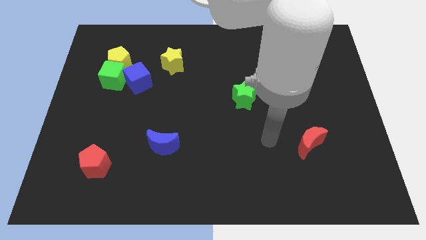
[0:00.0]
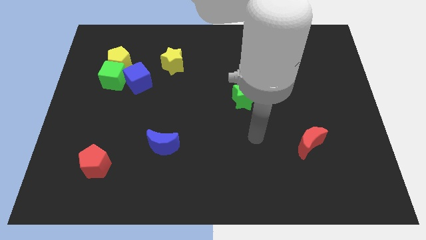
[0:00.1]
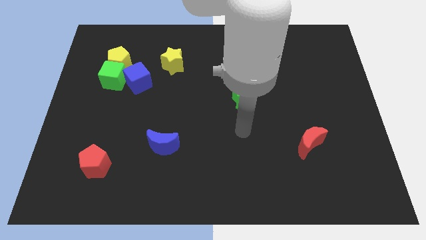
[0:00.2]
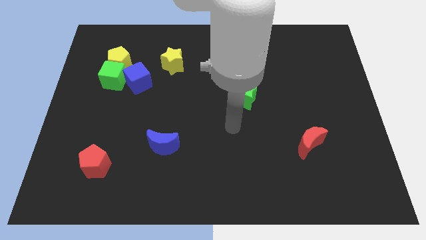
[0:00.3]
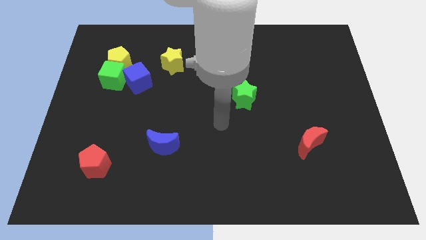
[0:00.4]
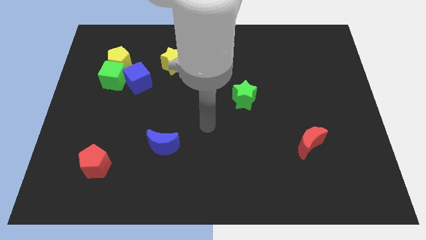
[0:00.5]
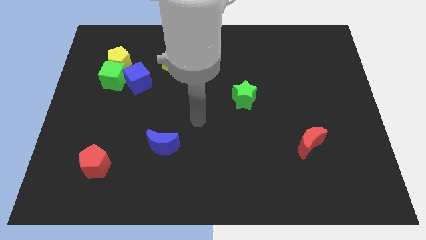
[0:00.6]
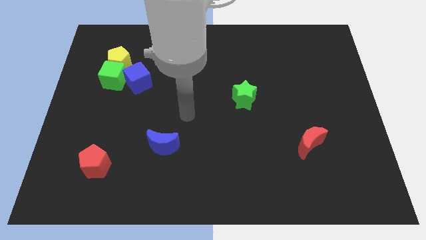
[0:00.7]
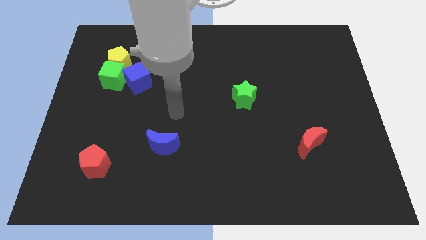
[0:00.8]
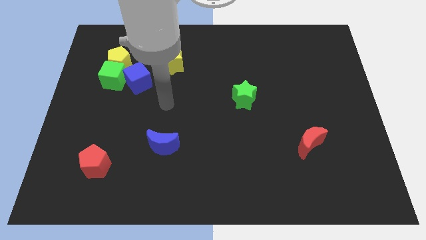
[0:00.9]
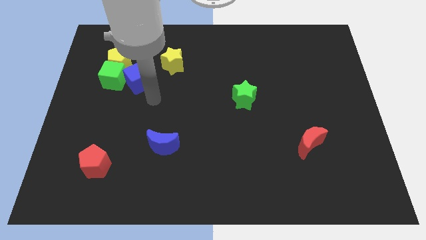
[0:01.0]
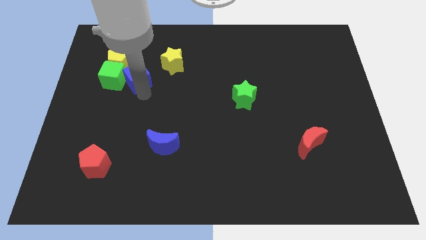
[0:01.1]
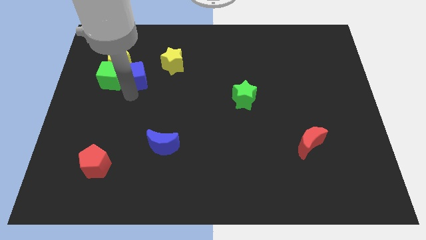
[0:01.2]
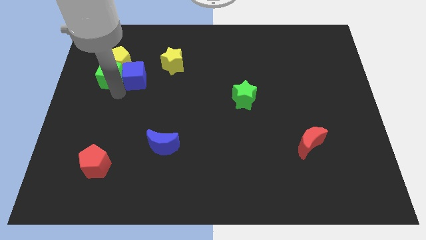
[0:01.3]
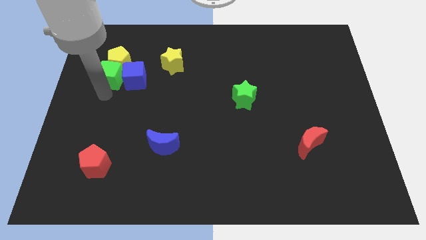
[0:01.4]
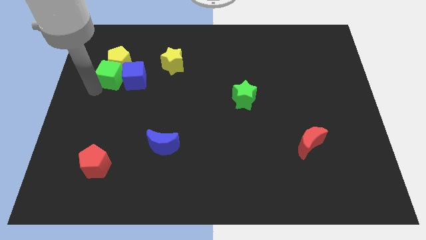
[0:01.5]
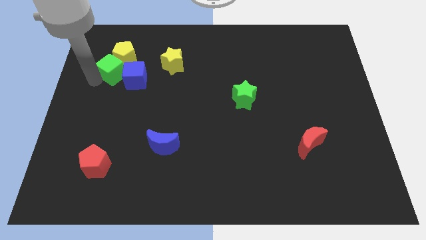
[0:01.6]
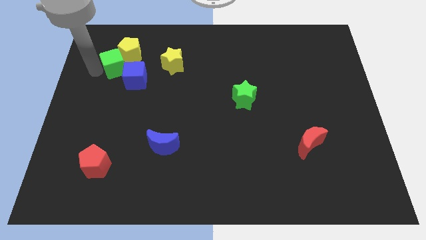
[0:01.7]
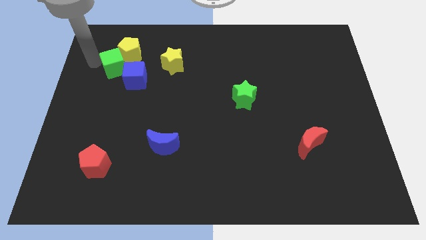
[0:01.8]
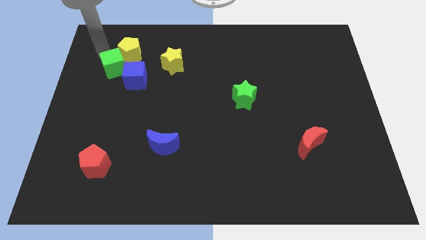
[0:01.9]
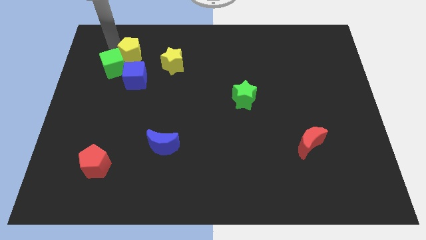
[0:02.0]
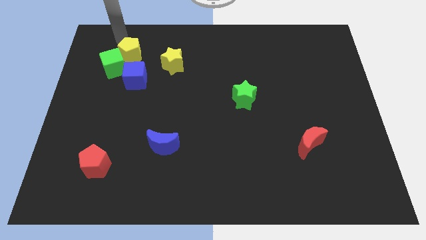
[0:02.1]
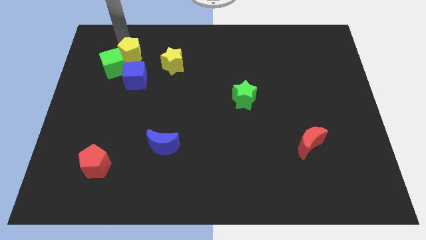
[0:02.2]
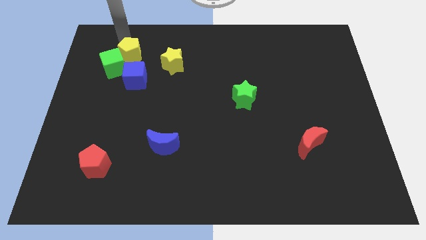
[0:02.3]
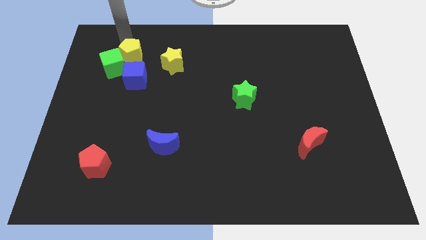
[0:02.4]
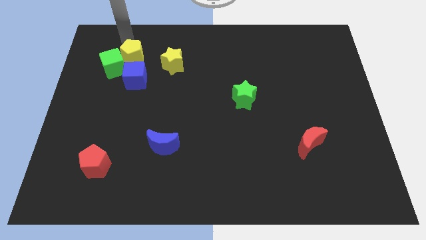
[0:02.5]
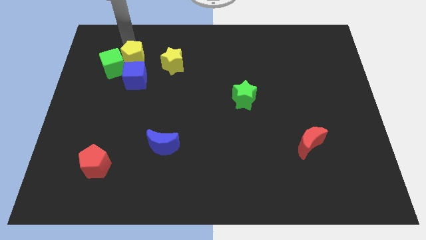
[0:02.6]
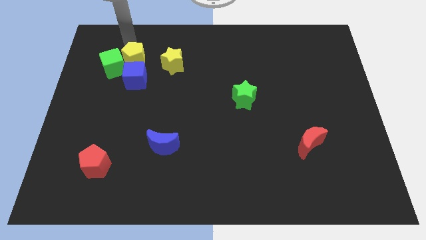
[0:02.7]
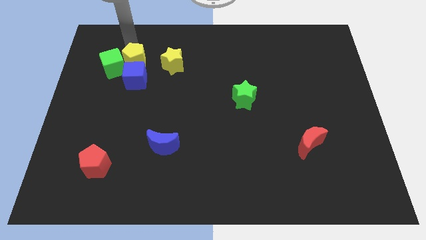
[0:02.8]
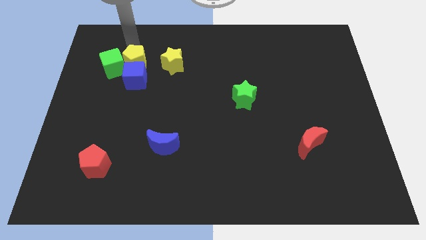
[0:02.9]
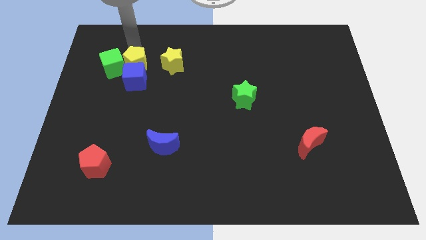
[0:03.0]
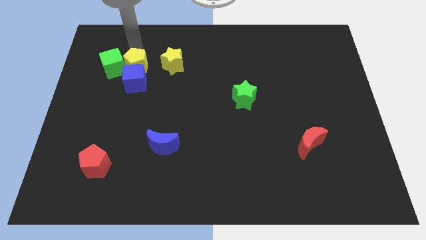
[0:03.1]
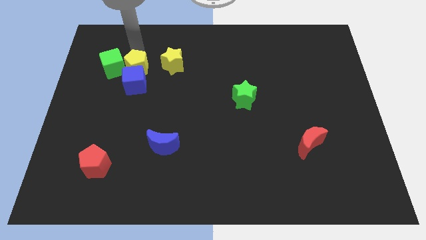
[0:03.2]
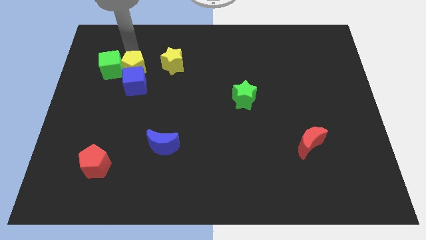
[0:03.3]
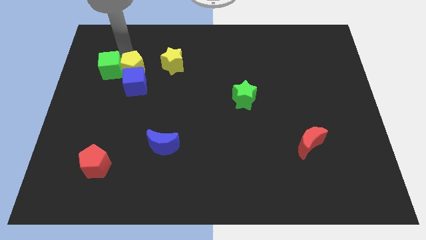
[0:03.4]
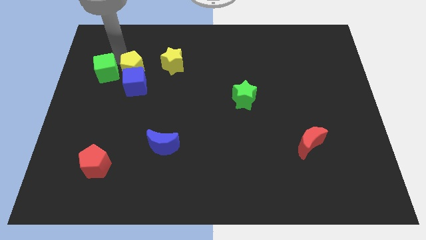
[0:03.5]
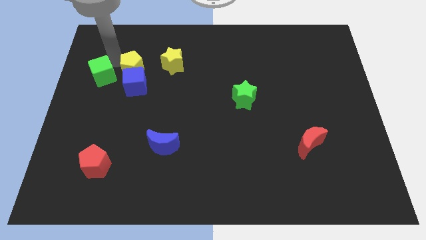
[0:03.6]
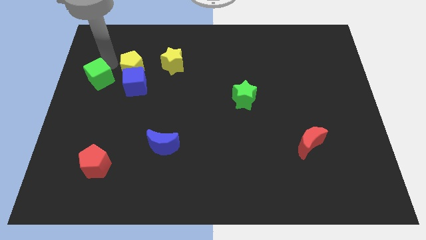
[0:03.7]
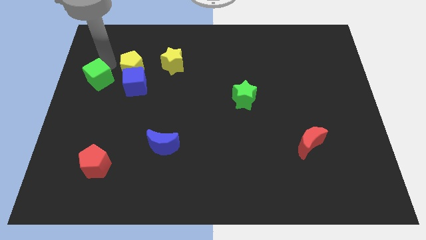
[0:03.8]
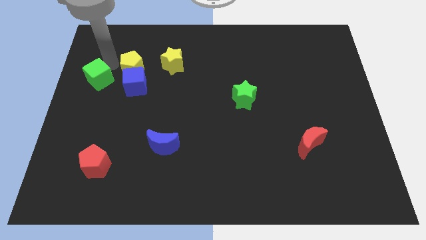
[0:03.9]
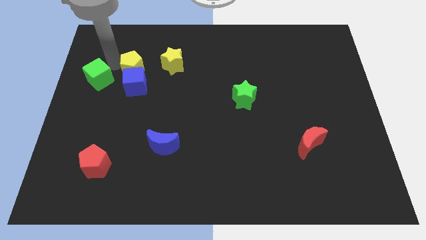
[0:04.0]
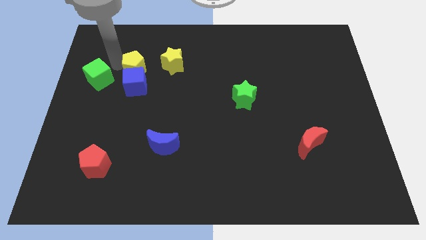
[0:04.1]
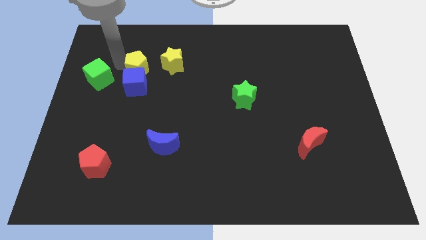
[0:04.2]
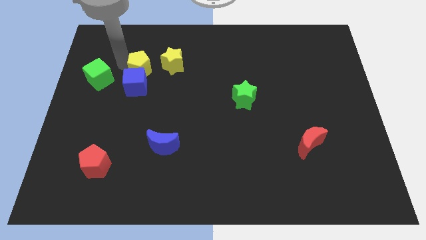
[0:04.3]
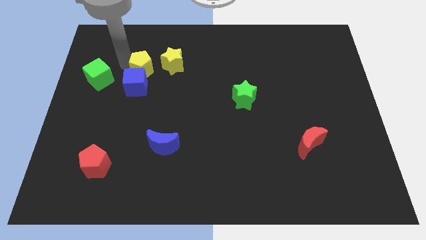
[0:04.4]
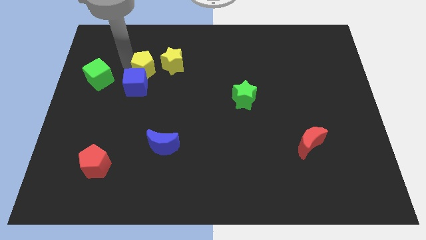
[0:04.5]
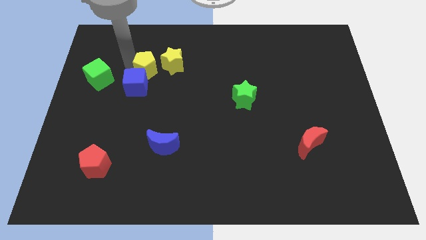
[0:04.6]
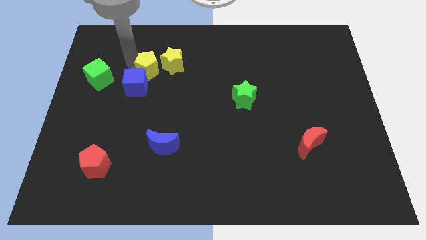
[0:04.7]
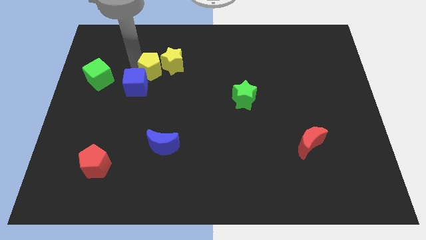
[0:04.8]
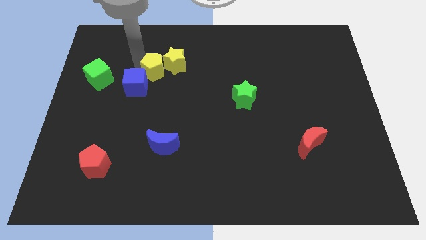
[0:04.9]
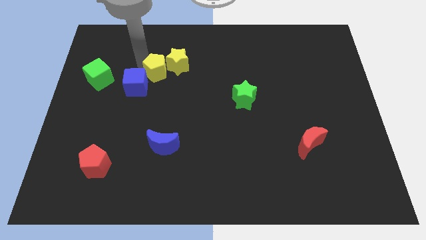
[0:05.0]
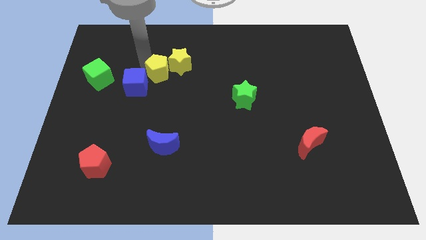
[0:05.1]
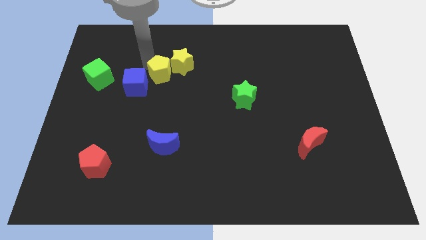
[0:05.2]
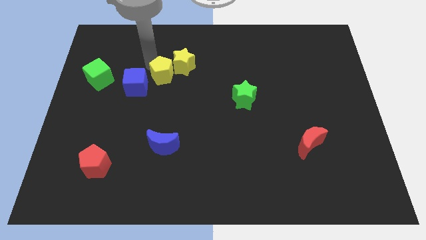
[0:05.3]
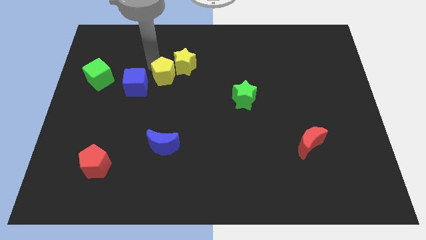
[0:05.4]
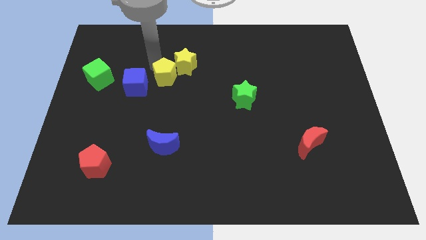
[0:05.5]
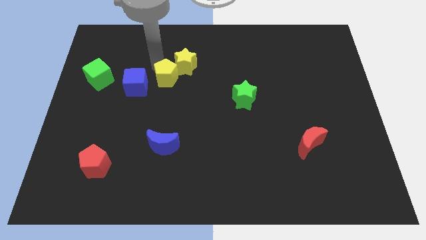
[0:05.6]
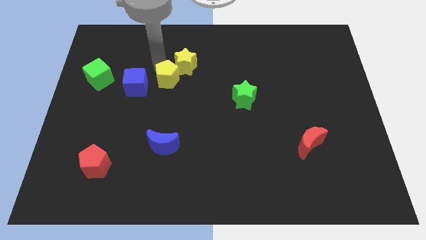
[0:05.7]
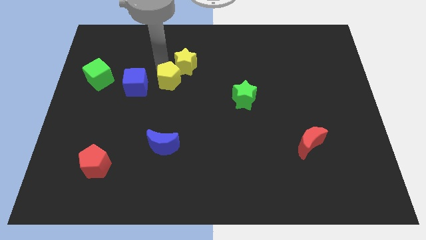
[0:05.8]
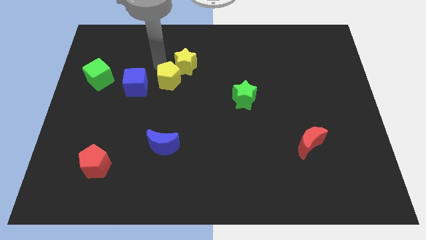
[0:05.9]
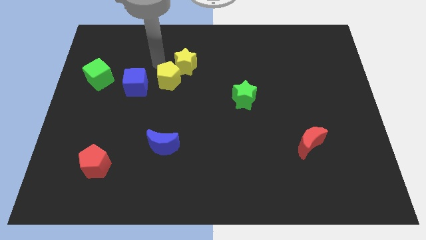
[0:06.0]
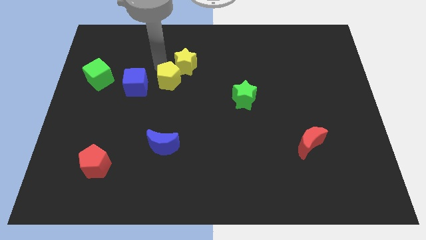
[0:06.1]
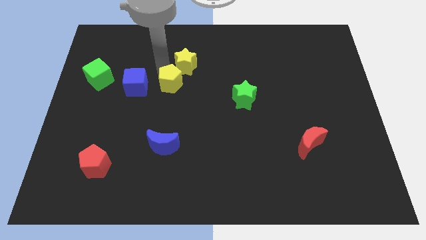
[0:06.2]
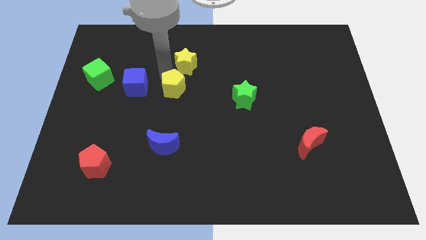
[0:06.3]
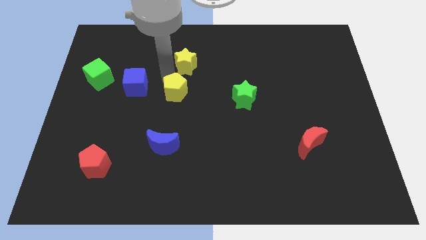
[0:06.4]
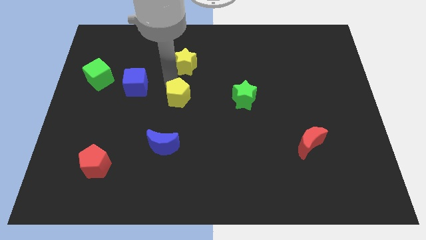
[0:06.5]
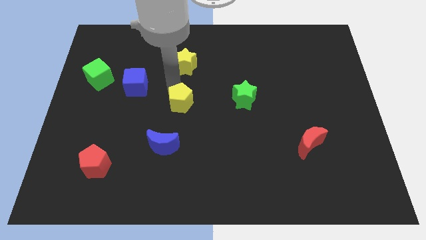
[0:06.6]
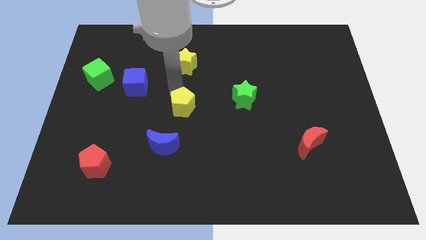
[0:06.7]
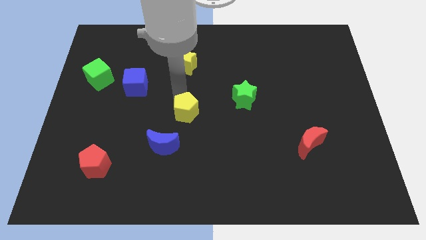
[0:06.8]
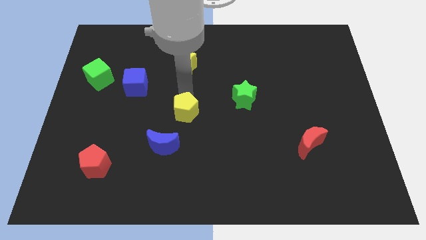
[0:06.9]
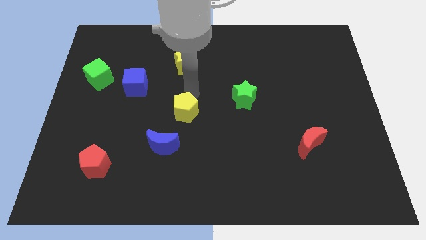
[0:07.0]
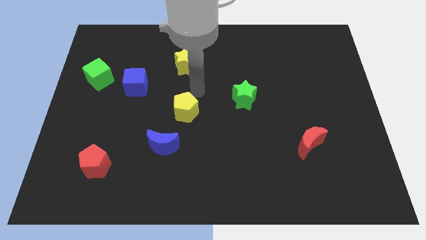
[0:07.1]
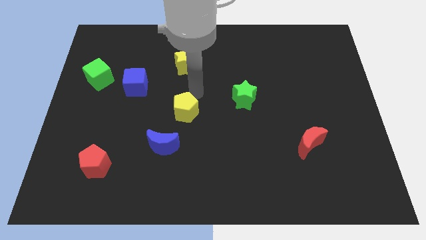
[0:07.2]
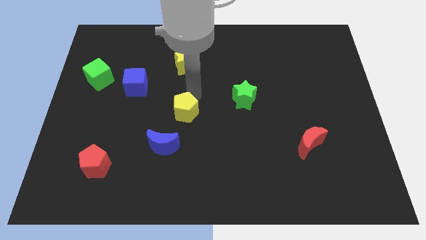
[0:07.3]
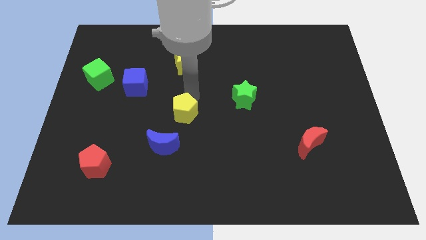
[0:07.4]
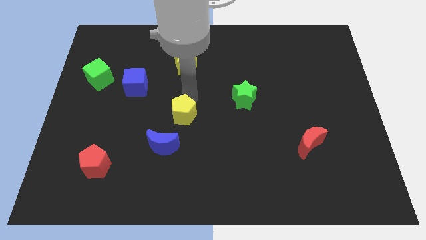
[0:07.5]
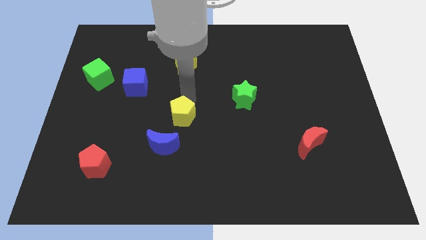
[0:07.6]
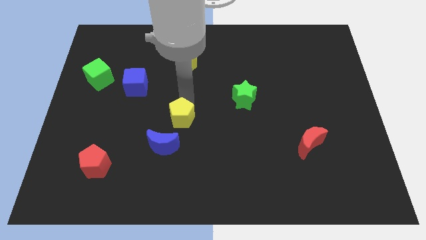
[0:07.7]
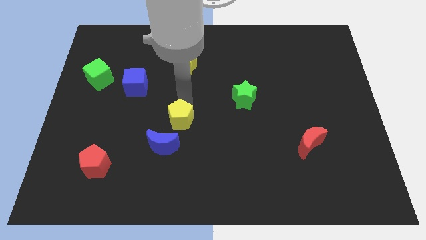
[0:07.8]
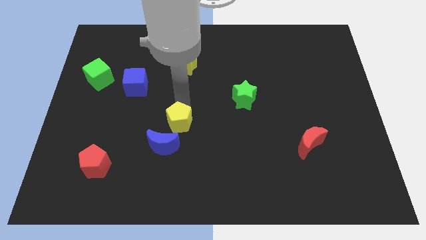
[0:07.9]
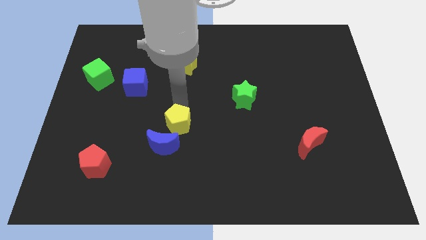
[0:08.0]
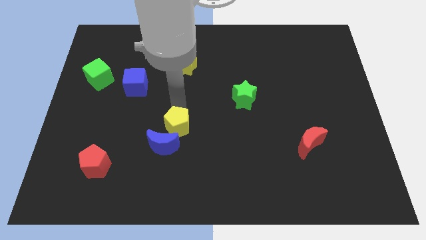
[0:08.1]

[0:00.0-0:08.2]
slide the yellow pentagon close to the blue moon
